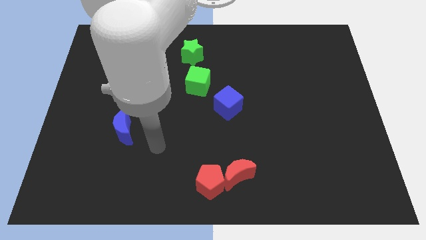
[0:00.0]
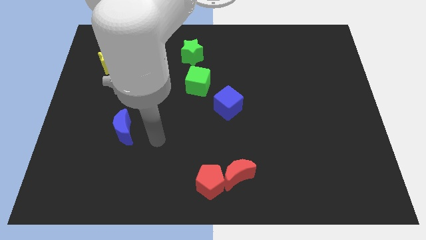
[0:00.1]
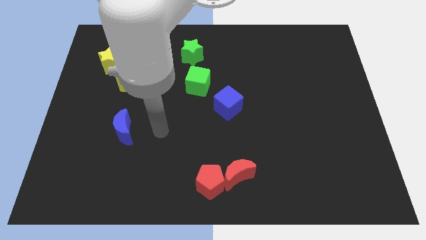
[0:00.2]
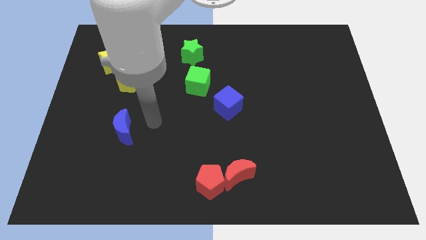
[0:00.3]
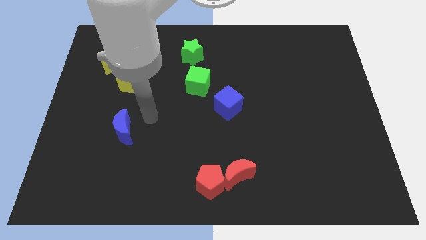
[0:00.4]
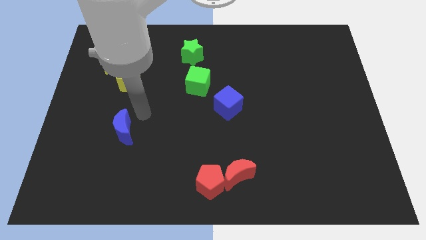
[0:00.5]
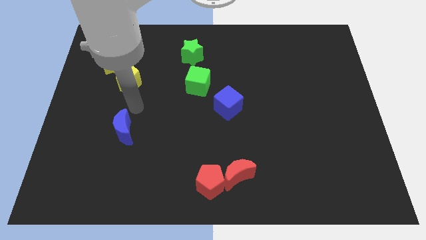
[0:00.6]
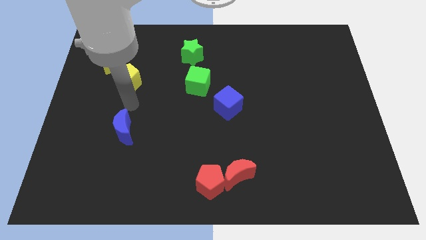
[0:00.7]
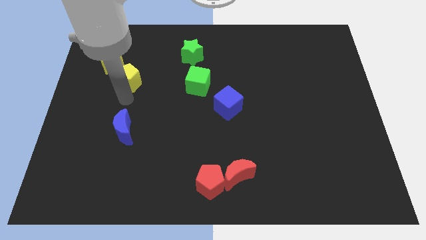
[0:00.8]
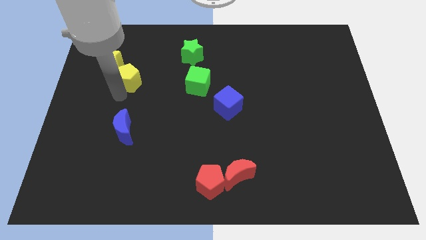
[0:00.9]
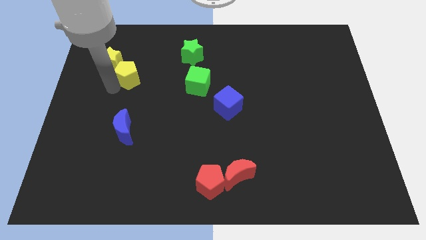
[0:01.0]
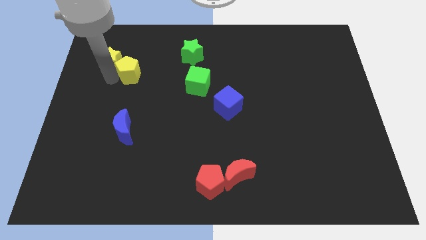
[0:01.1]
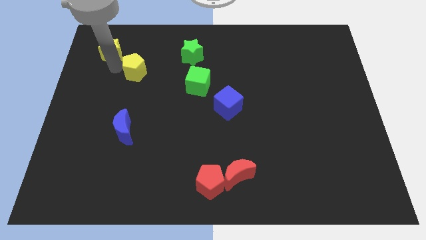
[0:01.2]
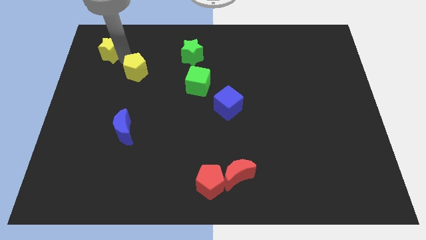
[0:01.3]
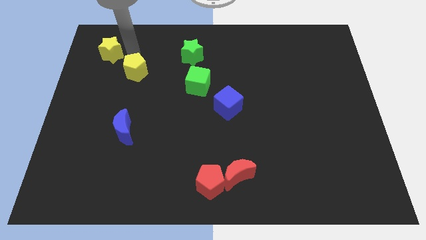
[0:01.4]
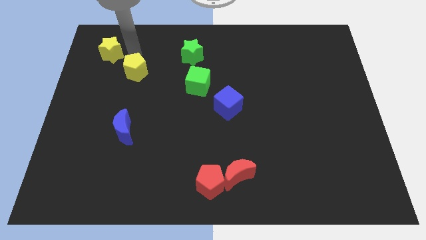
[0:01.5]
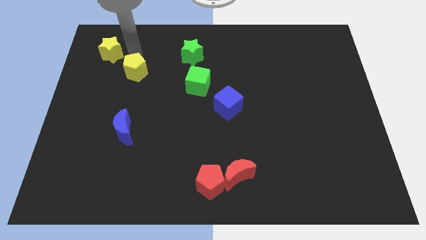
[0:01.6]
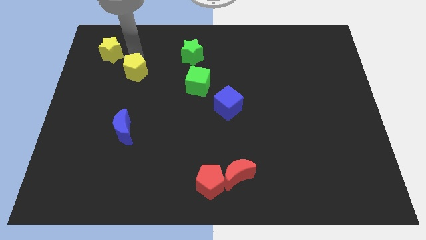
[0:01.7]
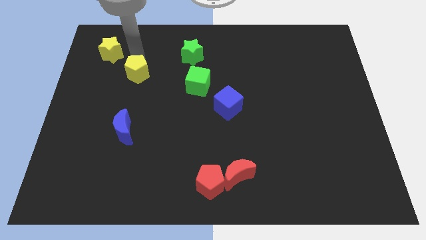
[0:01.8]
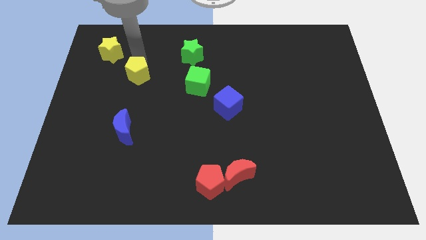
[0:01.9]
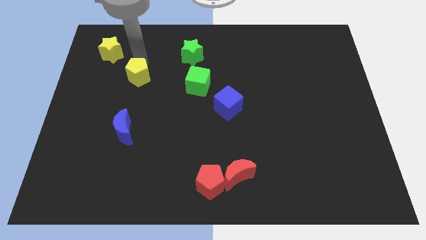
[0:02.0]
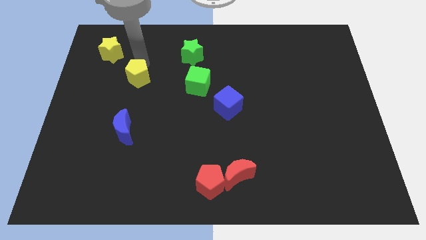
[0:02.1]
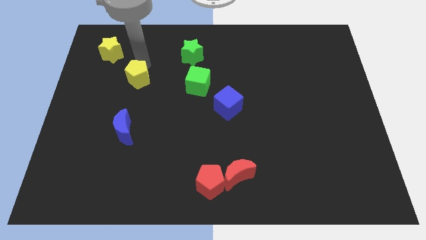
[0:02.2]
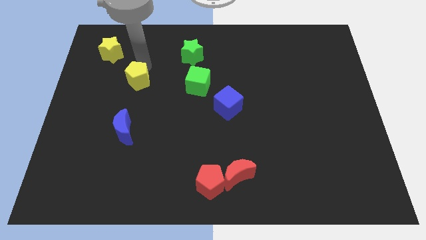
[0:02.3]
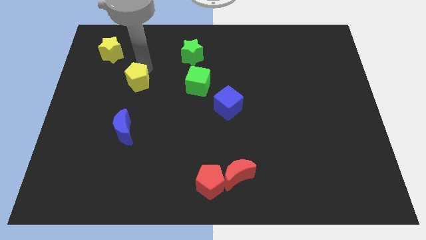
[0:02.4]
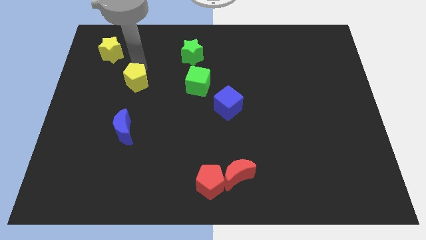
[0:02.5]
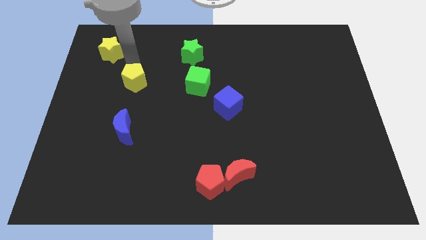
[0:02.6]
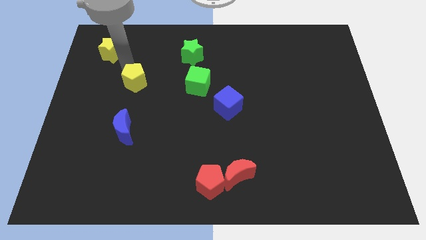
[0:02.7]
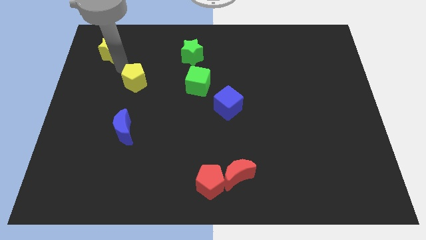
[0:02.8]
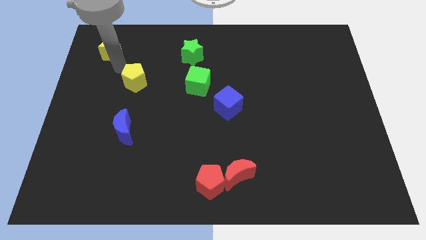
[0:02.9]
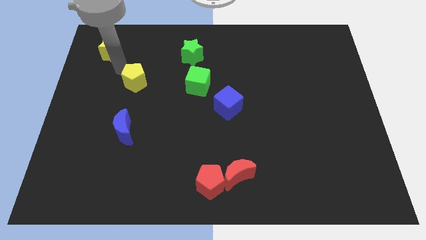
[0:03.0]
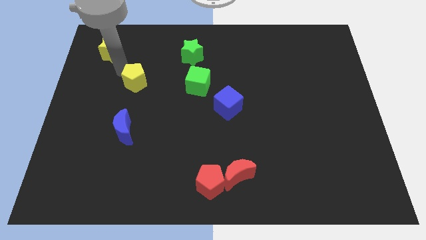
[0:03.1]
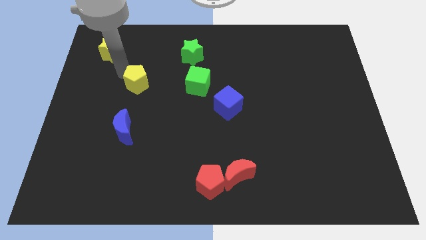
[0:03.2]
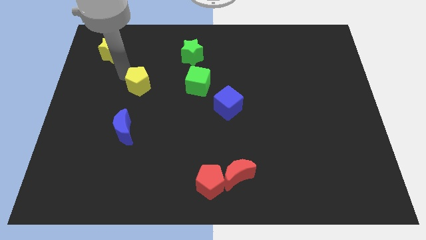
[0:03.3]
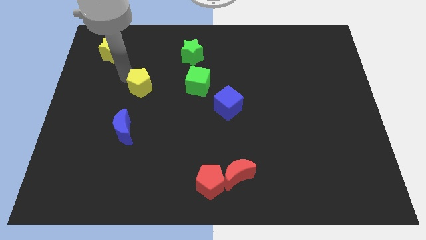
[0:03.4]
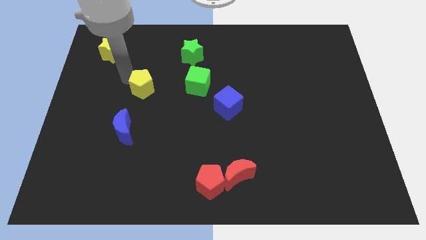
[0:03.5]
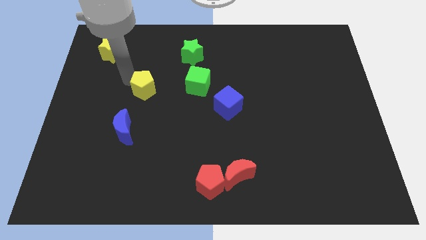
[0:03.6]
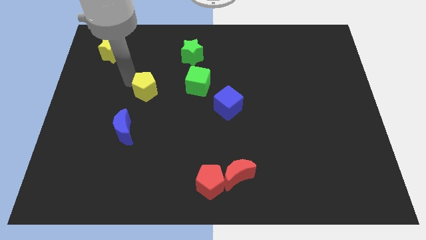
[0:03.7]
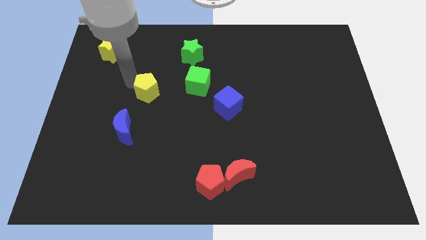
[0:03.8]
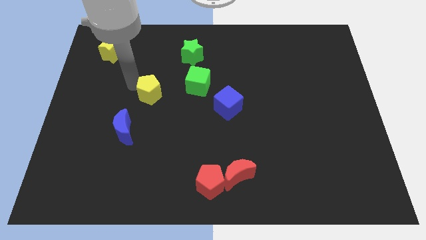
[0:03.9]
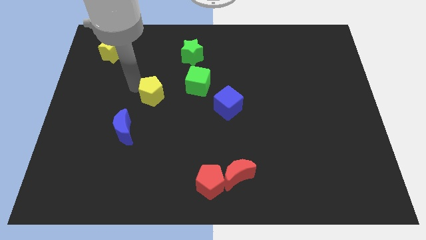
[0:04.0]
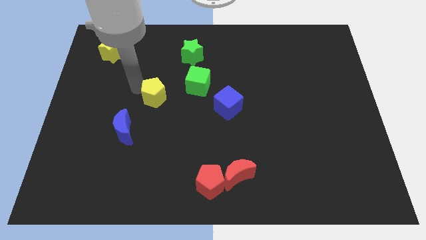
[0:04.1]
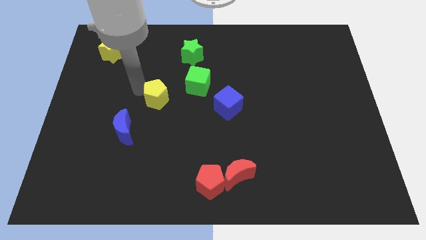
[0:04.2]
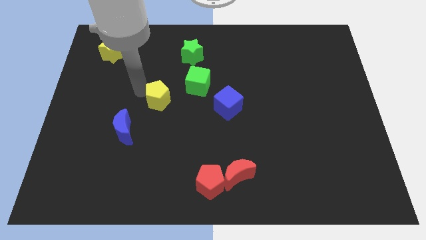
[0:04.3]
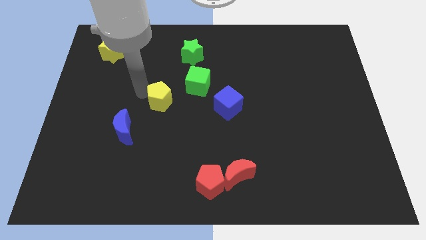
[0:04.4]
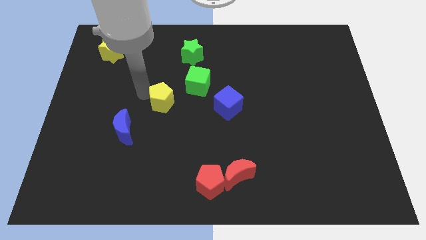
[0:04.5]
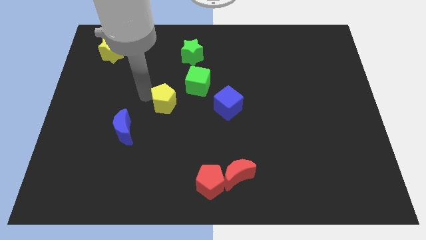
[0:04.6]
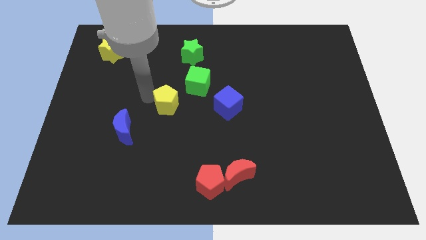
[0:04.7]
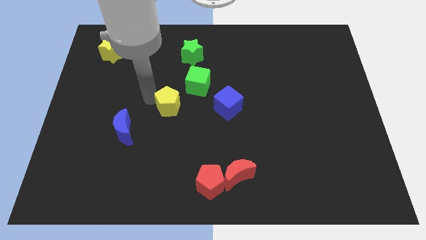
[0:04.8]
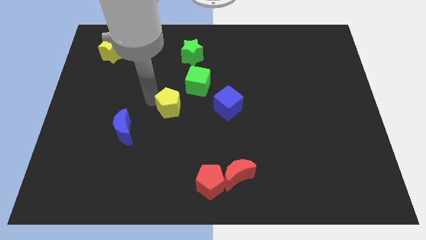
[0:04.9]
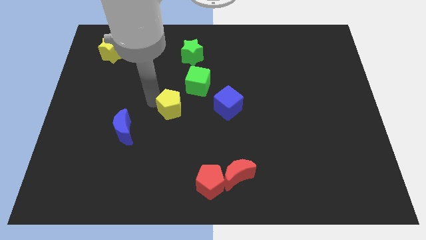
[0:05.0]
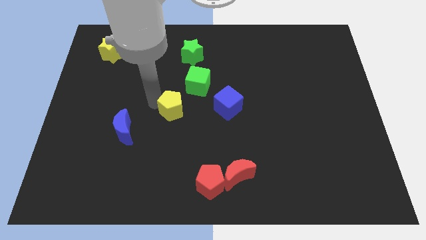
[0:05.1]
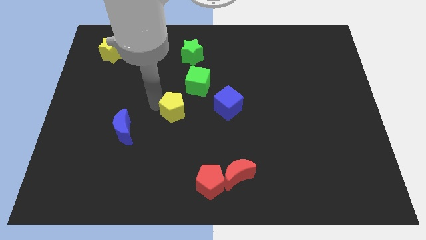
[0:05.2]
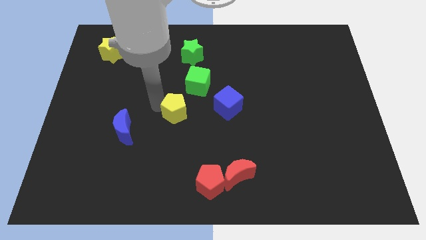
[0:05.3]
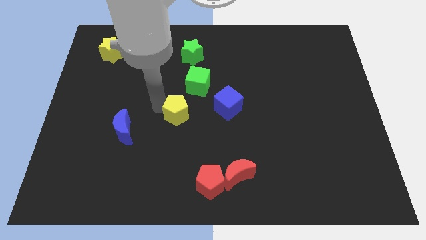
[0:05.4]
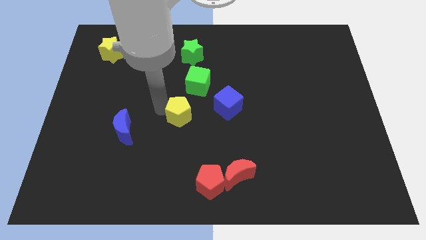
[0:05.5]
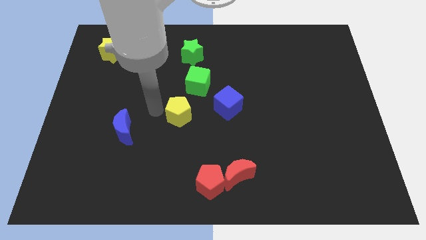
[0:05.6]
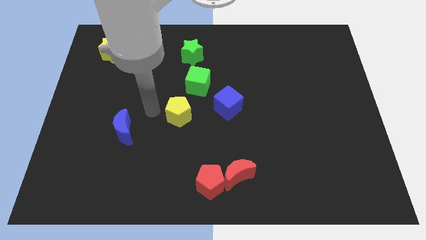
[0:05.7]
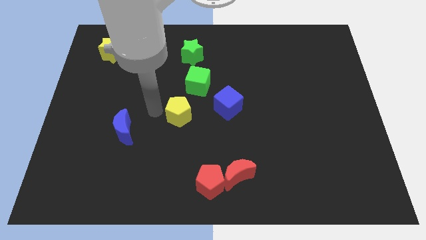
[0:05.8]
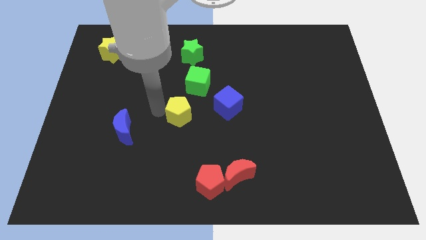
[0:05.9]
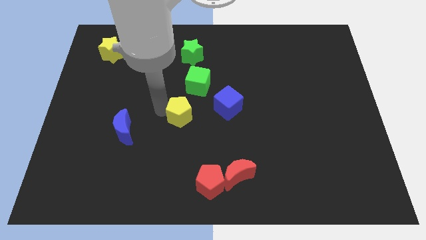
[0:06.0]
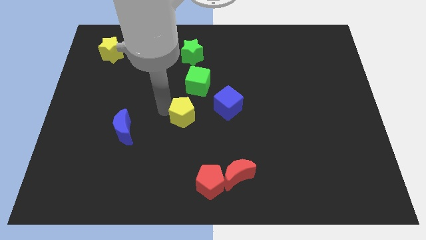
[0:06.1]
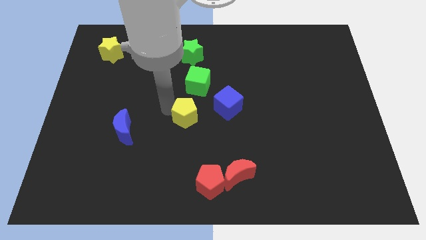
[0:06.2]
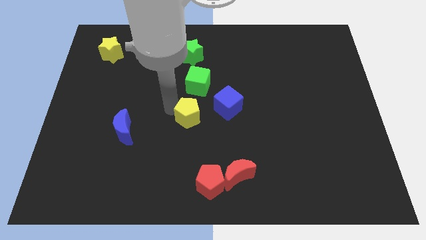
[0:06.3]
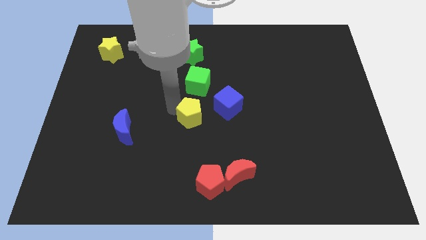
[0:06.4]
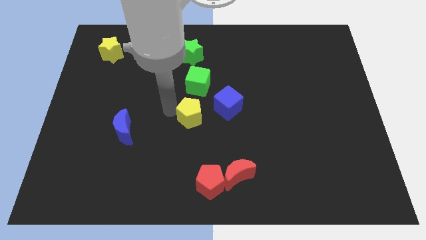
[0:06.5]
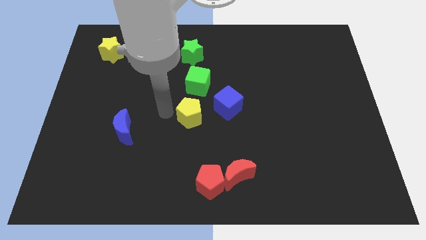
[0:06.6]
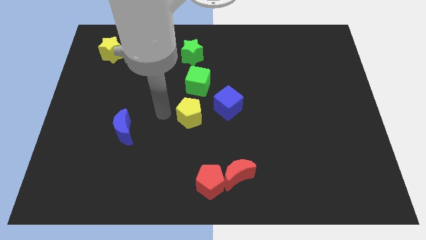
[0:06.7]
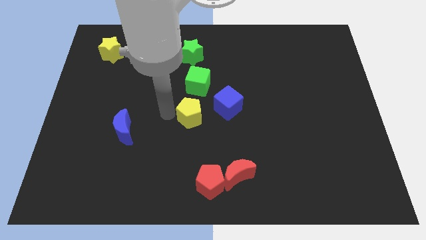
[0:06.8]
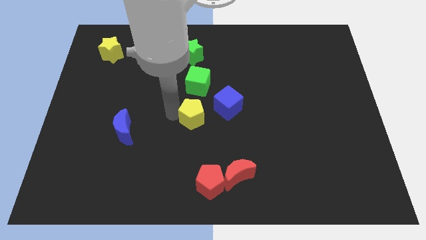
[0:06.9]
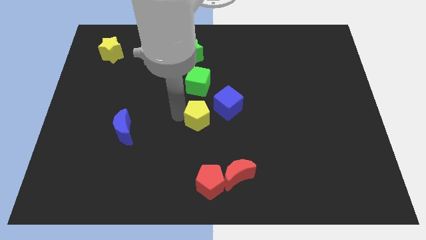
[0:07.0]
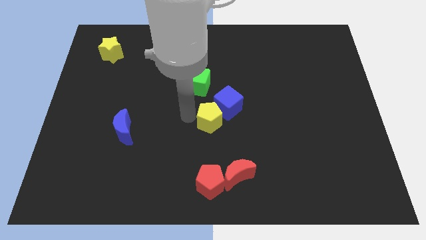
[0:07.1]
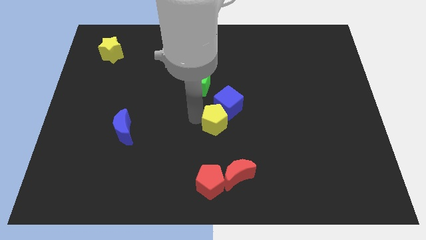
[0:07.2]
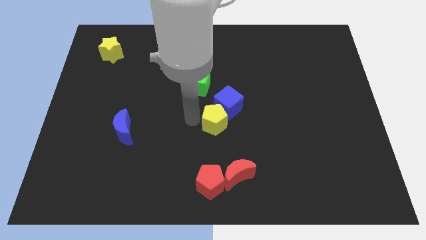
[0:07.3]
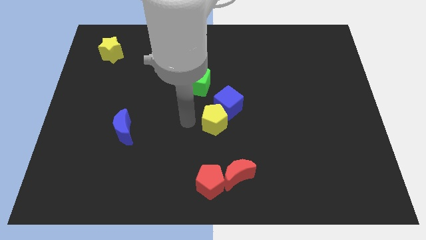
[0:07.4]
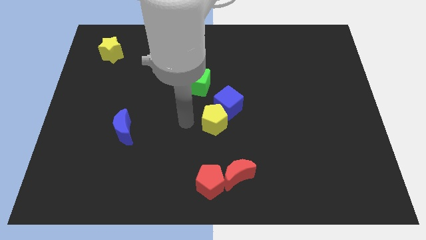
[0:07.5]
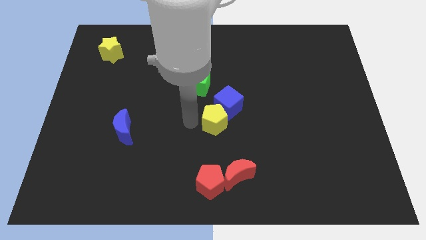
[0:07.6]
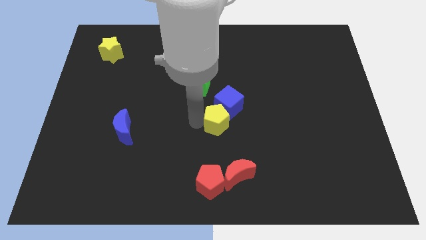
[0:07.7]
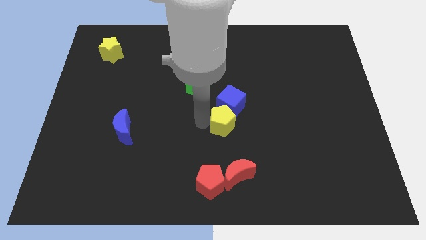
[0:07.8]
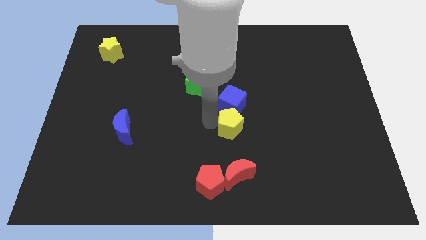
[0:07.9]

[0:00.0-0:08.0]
move the yellow pentagon diagonally down and to the right of the blue cube
